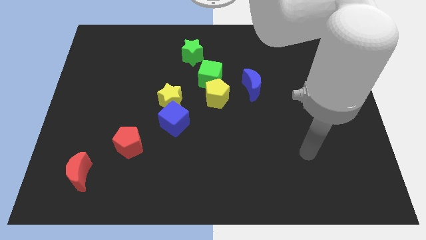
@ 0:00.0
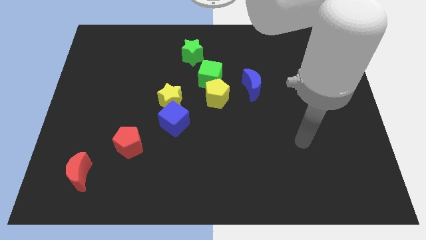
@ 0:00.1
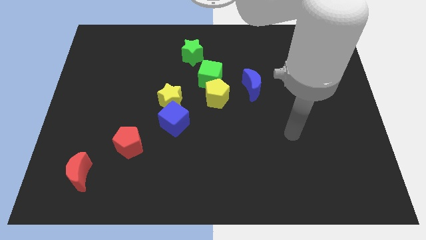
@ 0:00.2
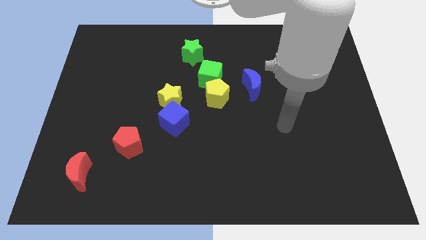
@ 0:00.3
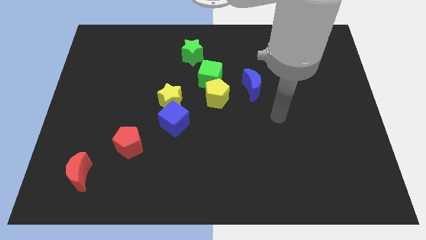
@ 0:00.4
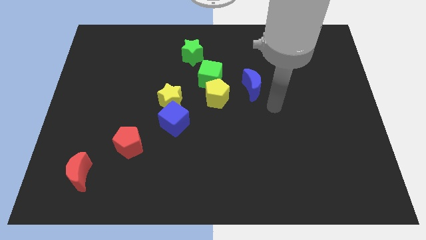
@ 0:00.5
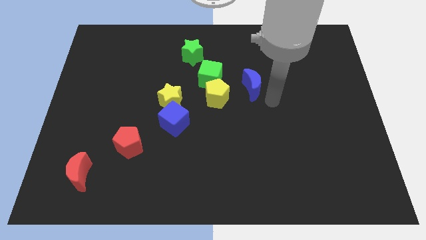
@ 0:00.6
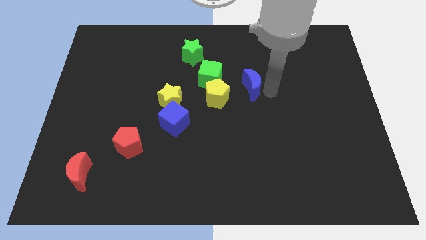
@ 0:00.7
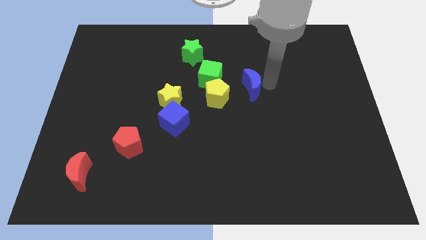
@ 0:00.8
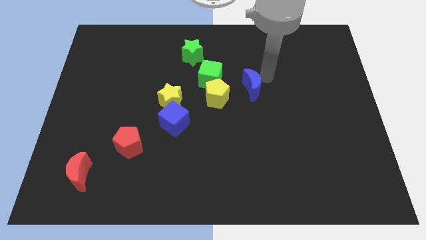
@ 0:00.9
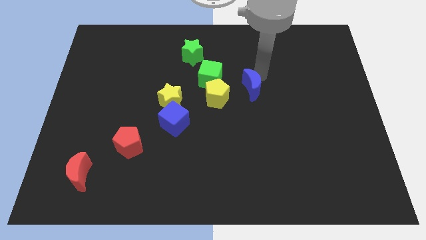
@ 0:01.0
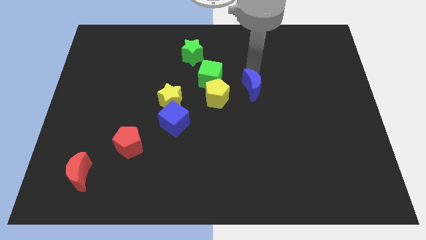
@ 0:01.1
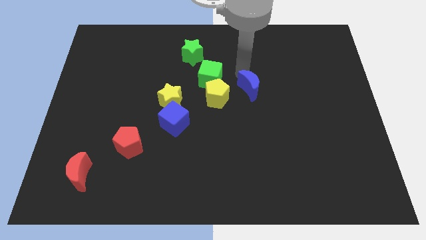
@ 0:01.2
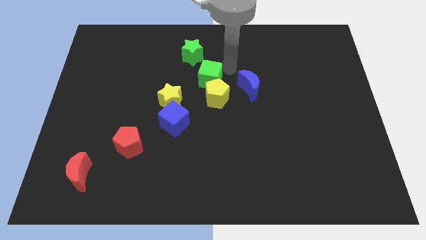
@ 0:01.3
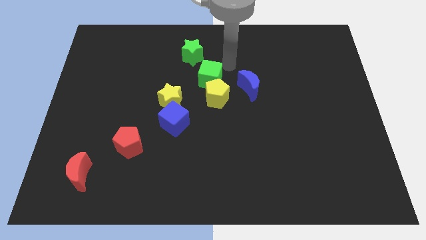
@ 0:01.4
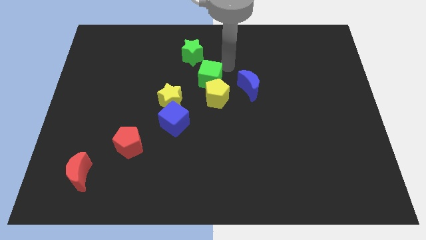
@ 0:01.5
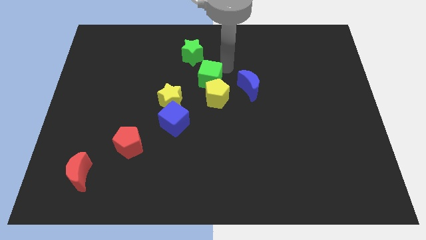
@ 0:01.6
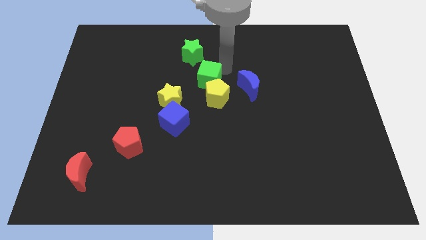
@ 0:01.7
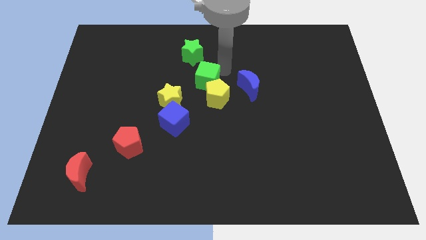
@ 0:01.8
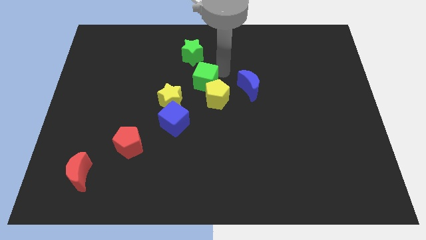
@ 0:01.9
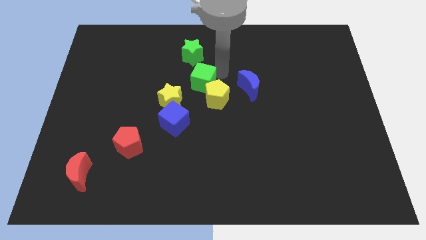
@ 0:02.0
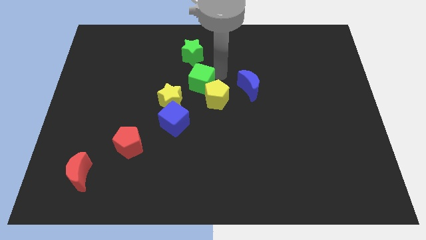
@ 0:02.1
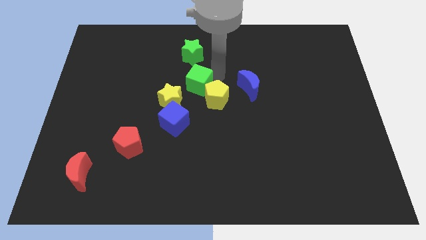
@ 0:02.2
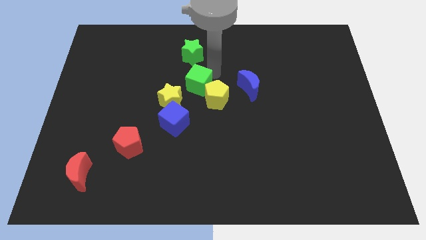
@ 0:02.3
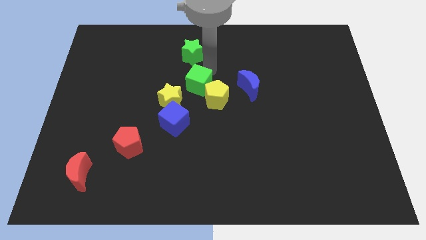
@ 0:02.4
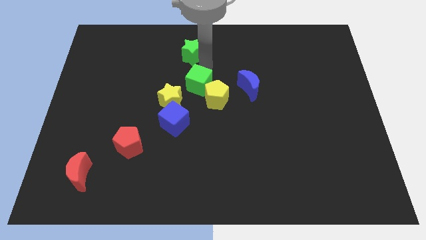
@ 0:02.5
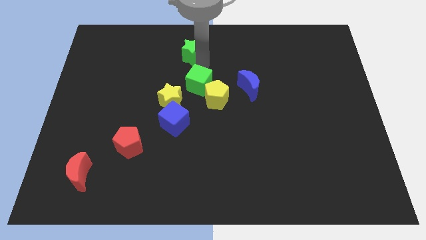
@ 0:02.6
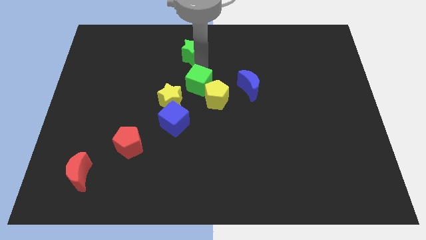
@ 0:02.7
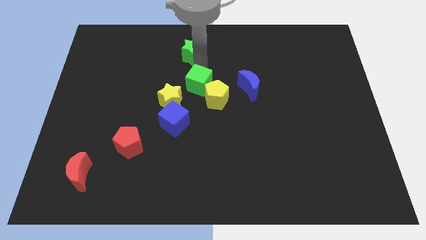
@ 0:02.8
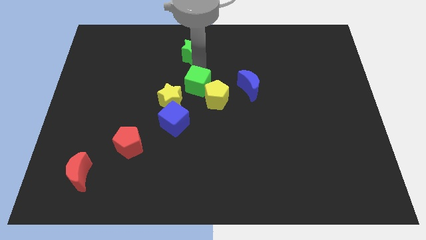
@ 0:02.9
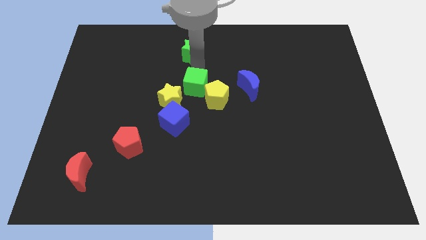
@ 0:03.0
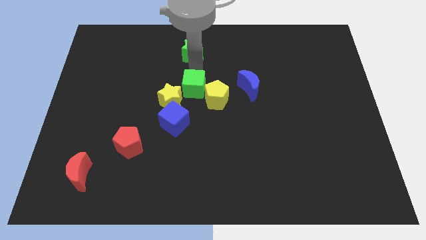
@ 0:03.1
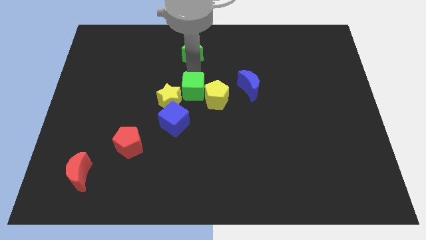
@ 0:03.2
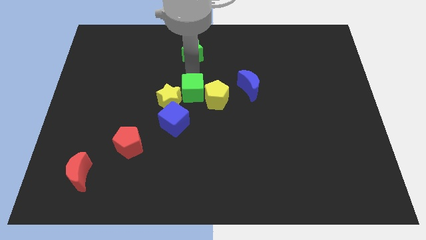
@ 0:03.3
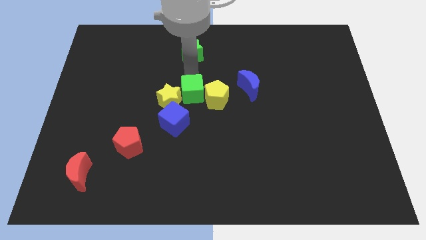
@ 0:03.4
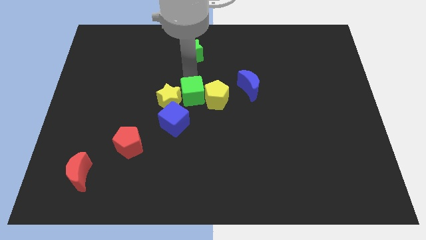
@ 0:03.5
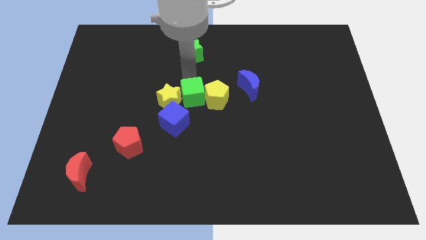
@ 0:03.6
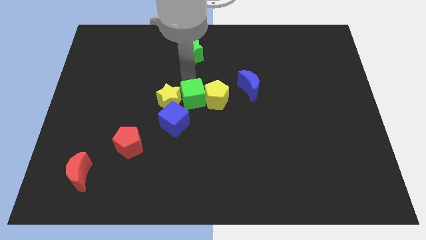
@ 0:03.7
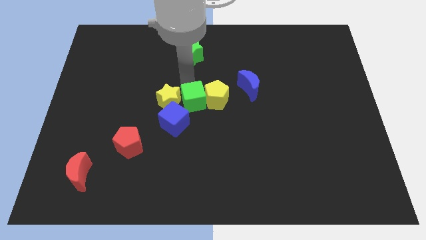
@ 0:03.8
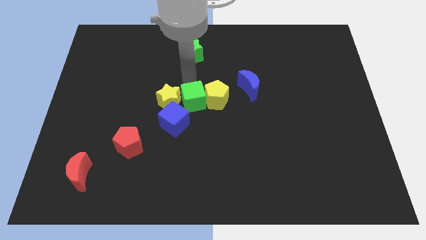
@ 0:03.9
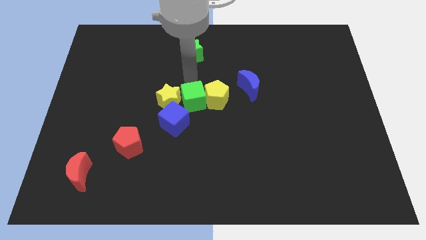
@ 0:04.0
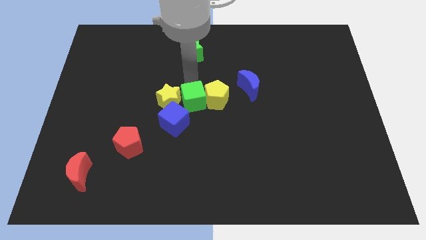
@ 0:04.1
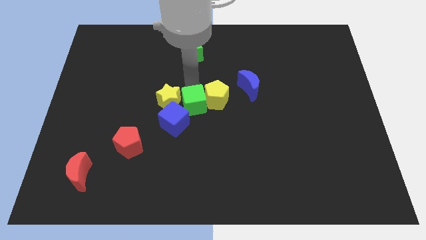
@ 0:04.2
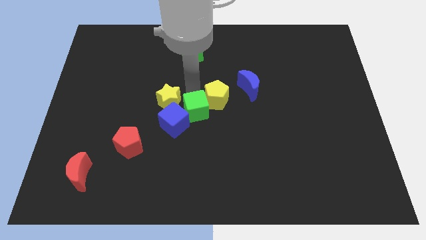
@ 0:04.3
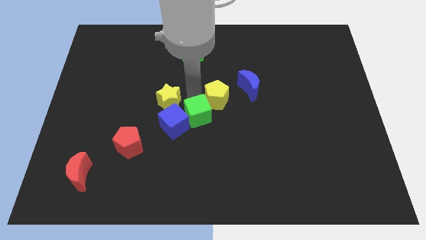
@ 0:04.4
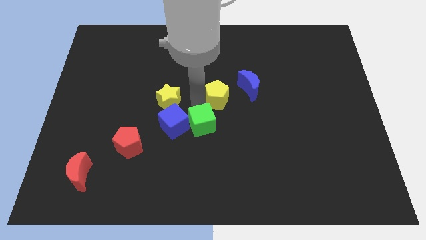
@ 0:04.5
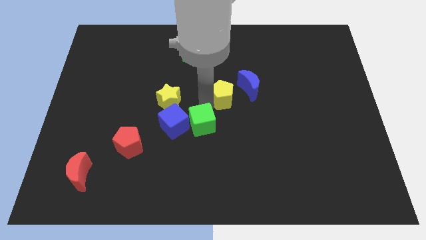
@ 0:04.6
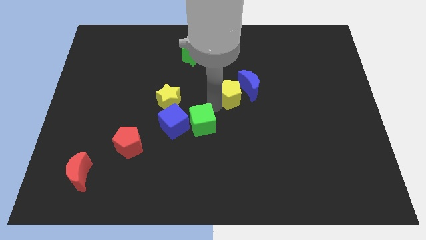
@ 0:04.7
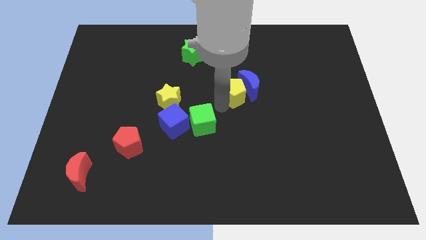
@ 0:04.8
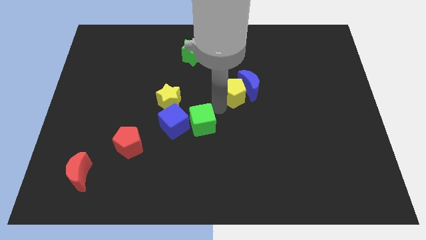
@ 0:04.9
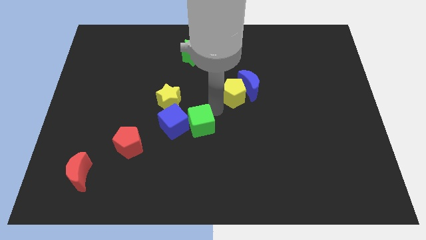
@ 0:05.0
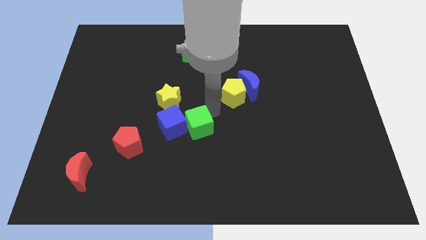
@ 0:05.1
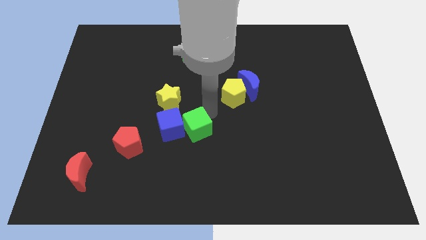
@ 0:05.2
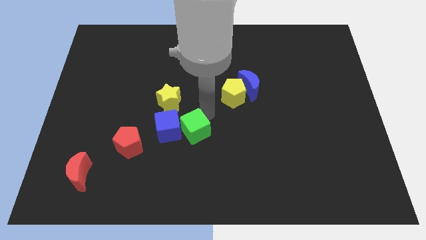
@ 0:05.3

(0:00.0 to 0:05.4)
slide the green cube right of the red pentagon

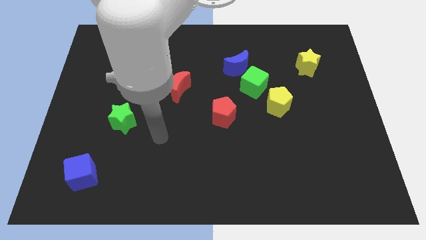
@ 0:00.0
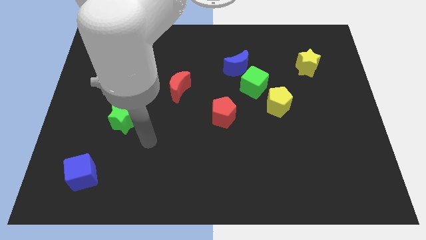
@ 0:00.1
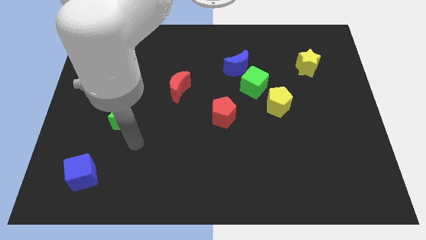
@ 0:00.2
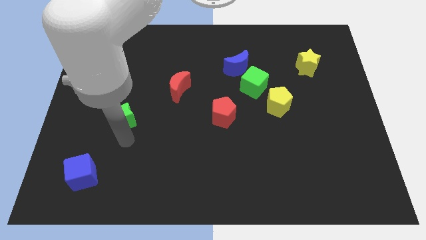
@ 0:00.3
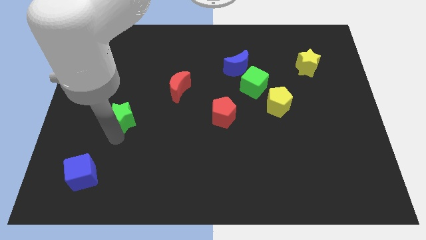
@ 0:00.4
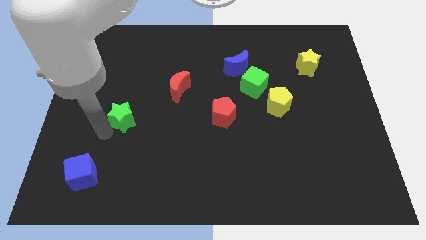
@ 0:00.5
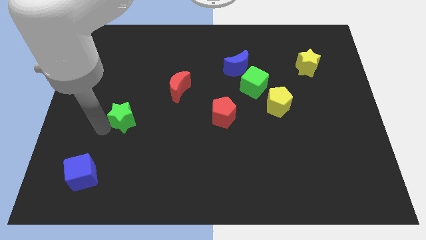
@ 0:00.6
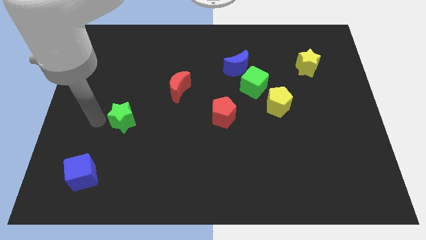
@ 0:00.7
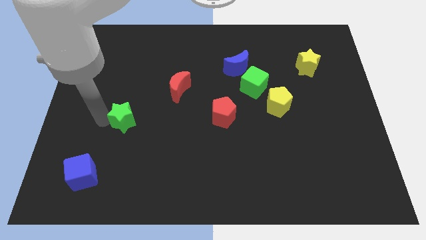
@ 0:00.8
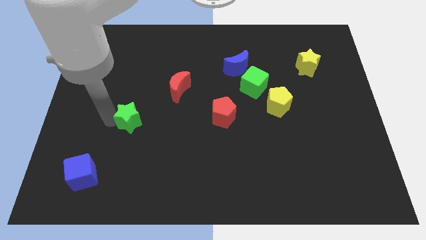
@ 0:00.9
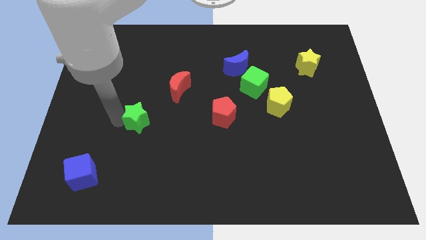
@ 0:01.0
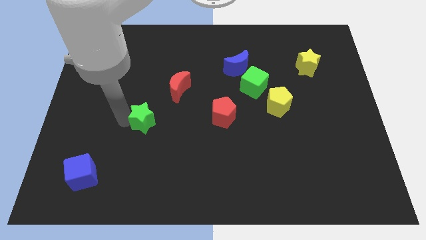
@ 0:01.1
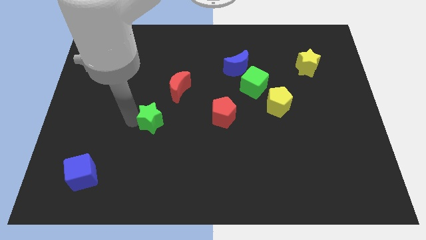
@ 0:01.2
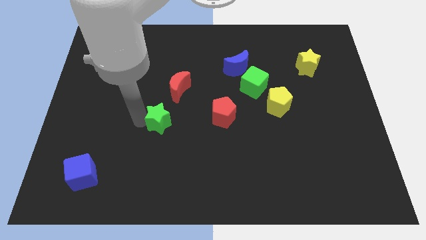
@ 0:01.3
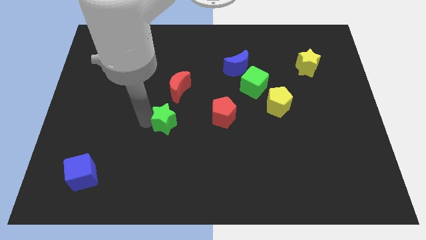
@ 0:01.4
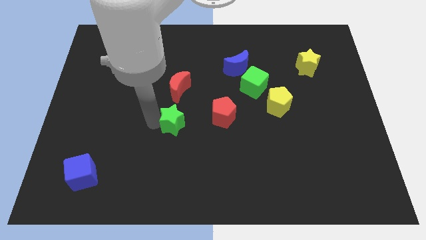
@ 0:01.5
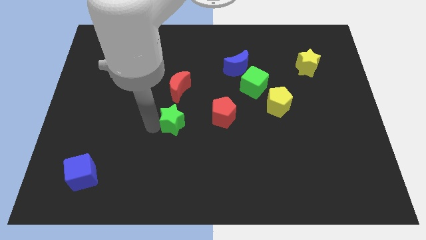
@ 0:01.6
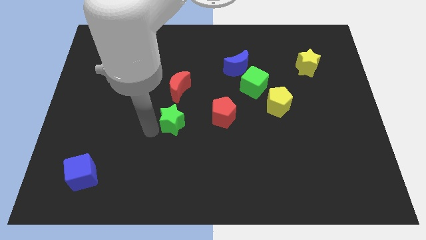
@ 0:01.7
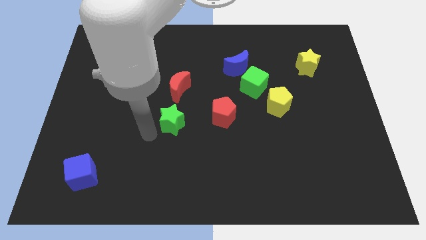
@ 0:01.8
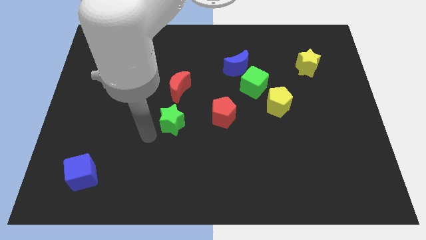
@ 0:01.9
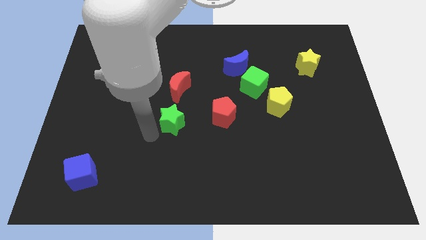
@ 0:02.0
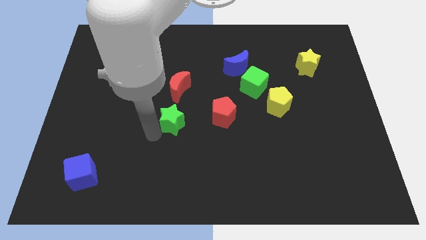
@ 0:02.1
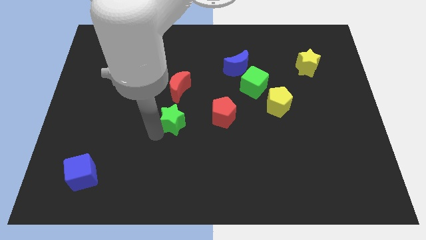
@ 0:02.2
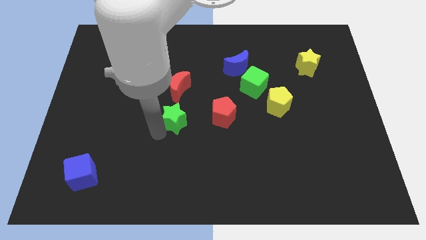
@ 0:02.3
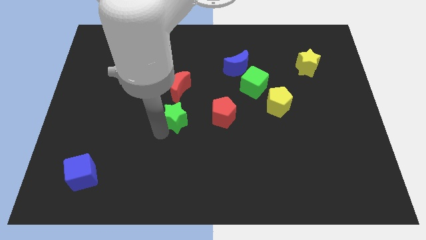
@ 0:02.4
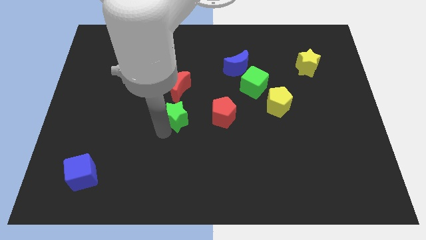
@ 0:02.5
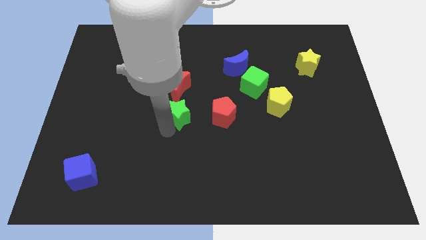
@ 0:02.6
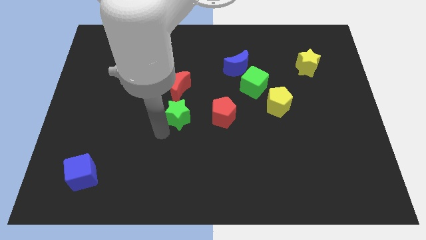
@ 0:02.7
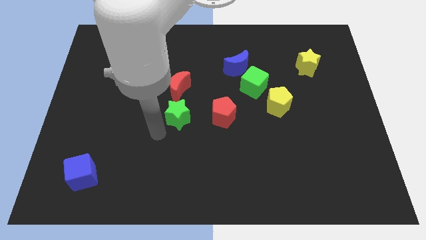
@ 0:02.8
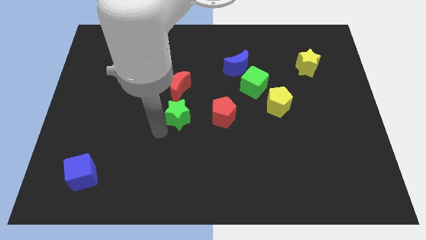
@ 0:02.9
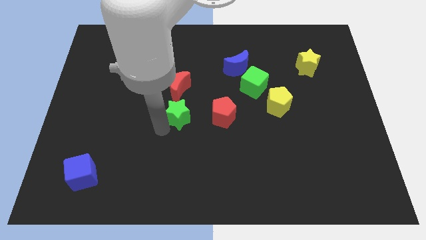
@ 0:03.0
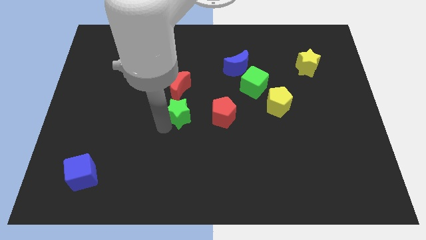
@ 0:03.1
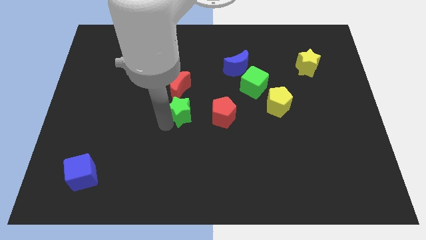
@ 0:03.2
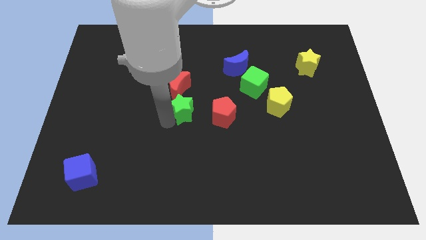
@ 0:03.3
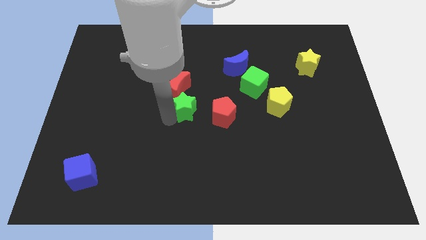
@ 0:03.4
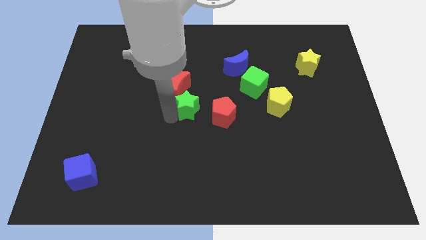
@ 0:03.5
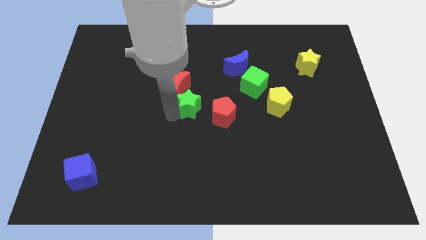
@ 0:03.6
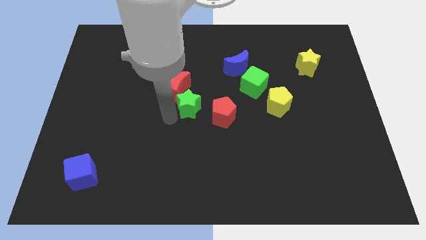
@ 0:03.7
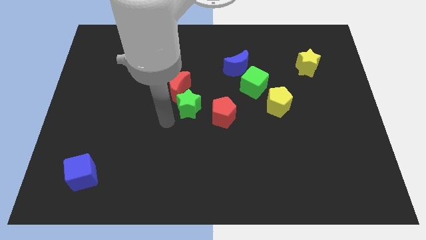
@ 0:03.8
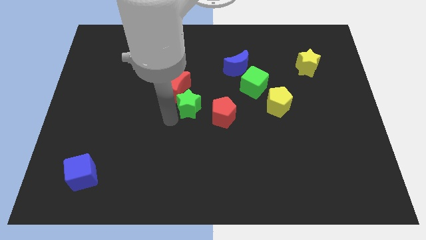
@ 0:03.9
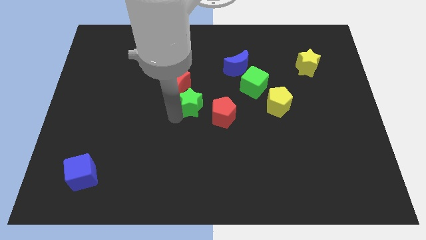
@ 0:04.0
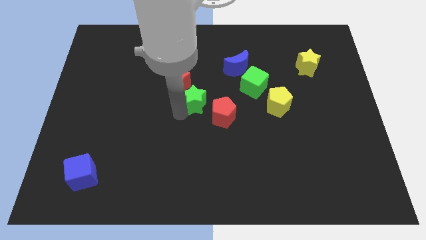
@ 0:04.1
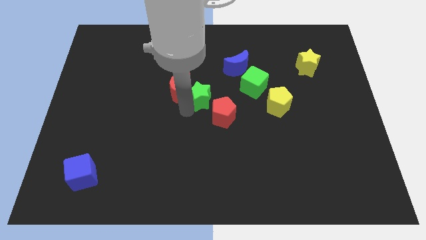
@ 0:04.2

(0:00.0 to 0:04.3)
put the green star to the left side of the green cube
